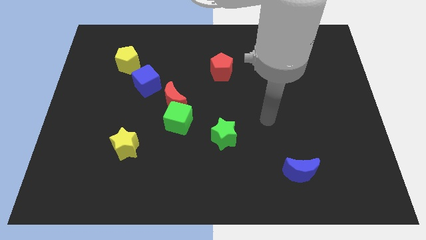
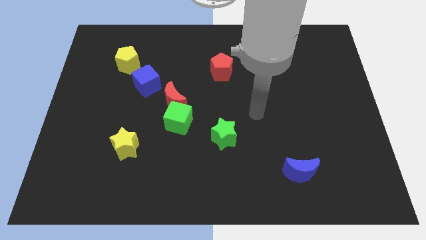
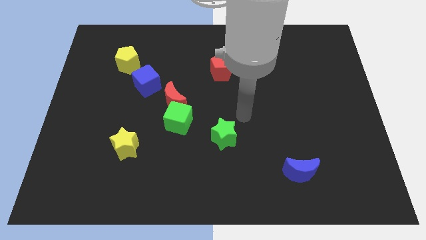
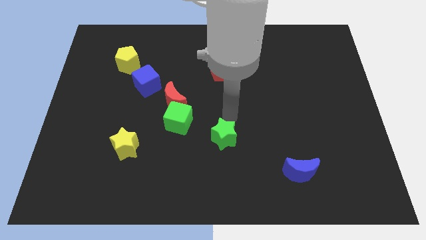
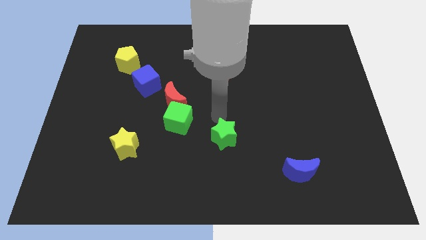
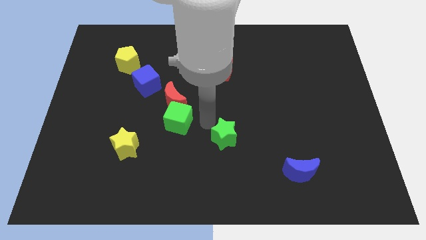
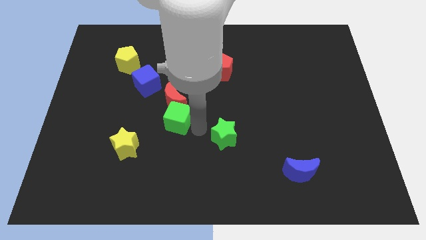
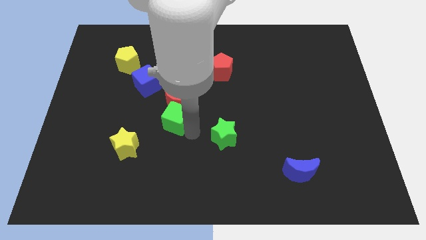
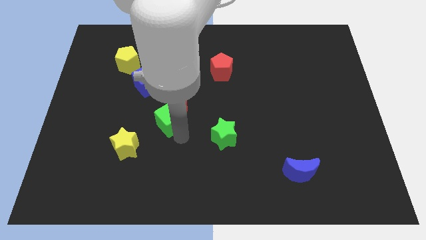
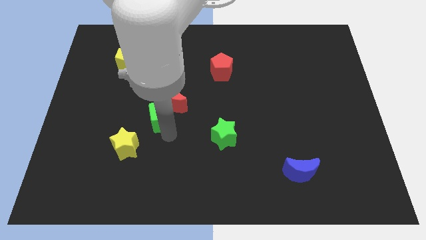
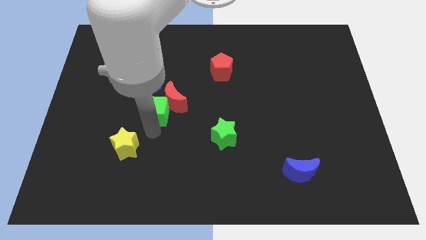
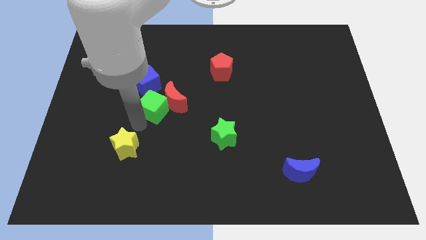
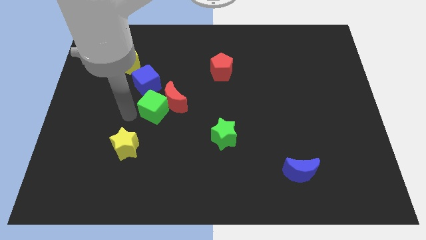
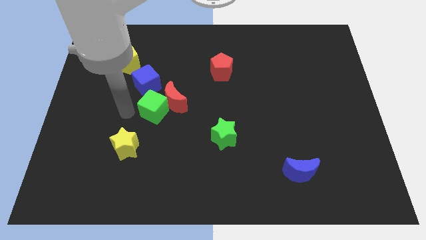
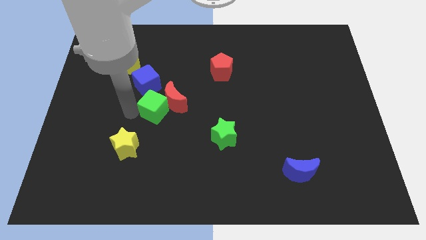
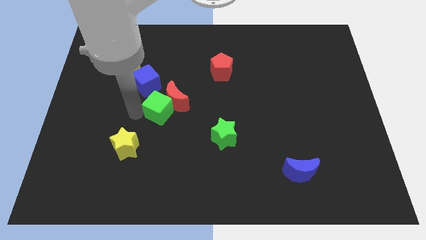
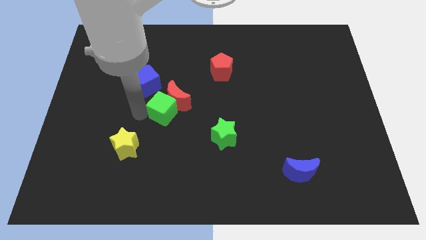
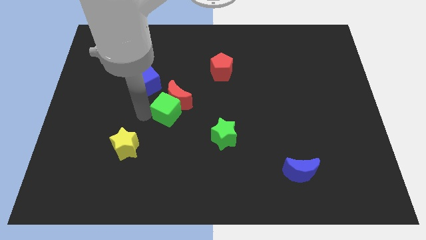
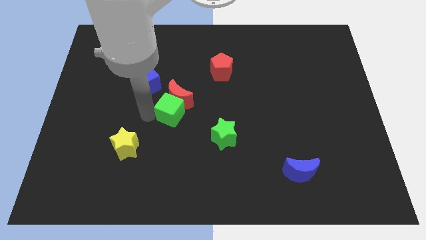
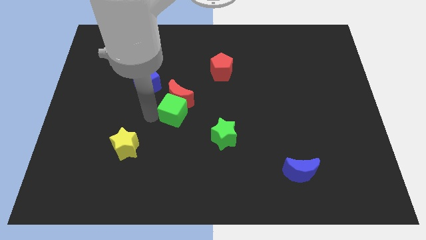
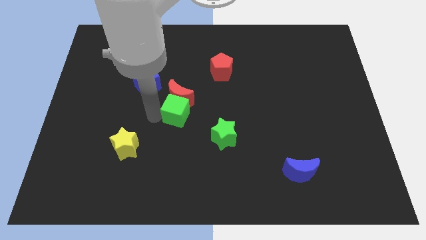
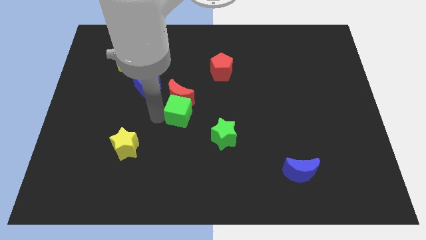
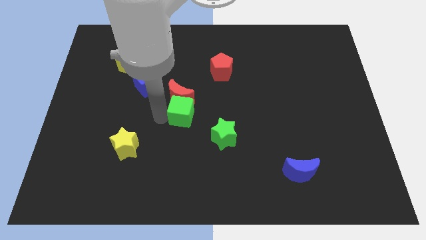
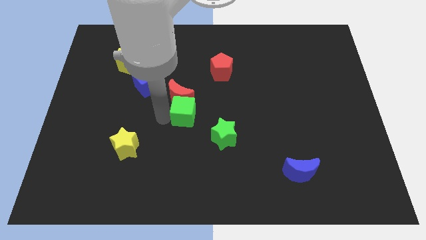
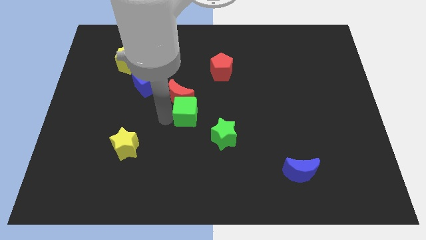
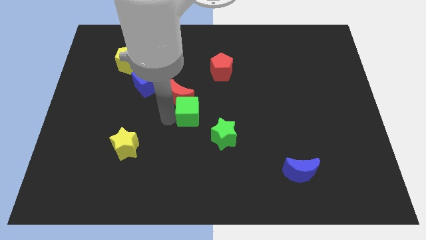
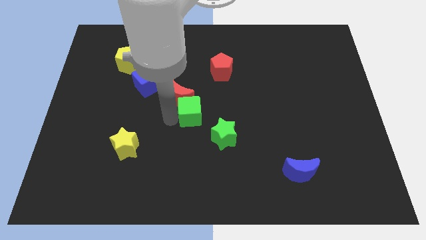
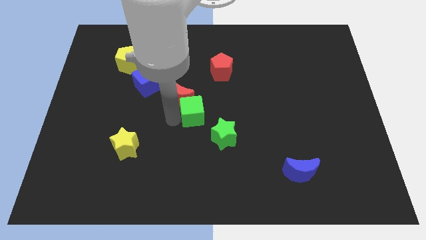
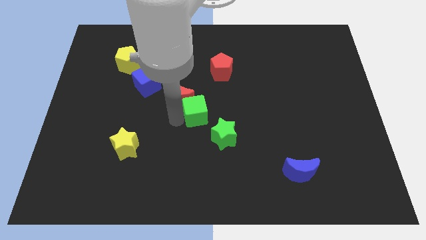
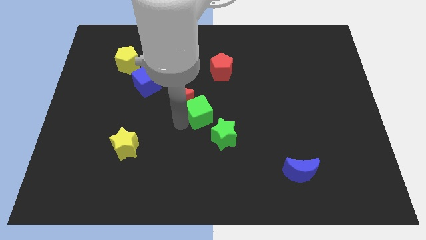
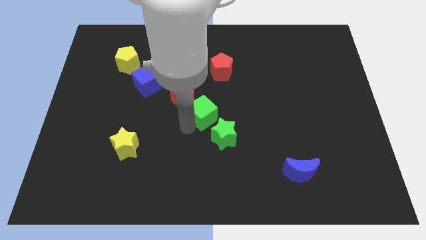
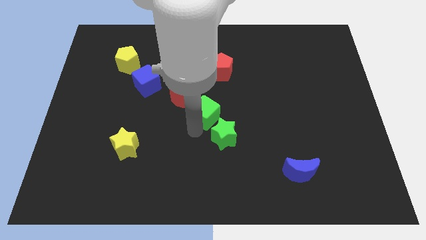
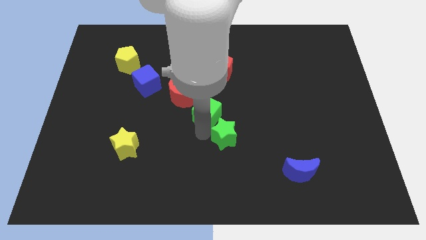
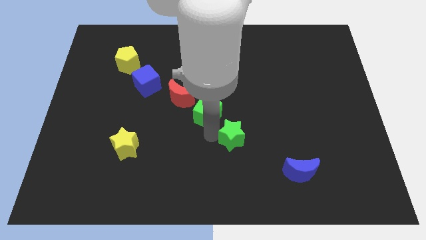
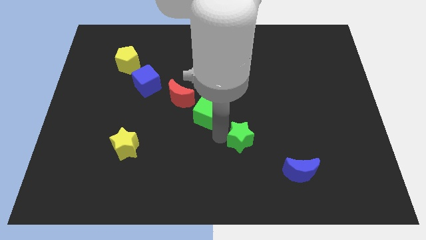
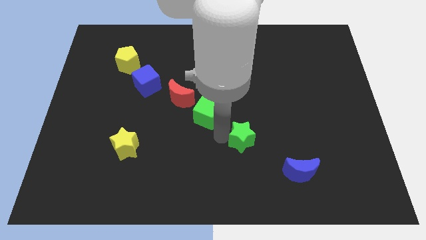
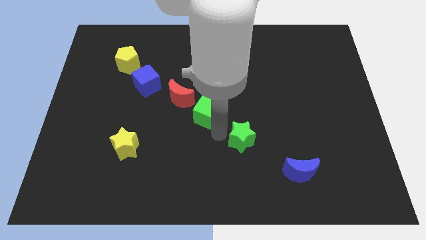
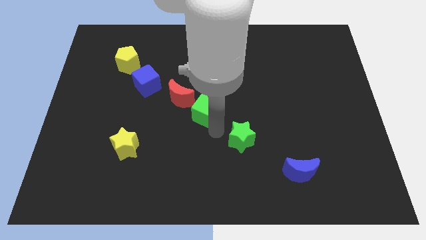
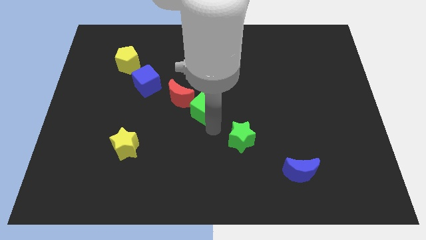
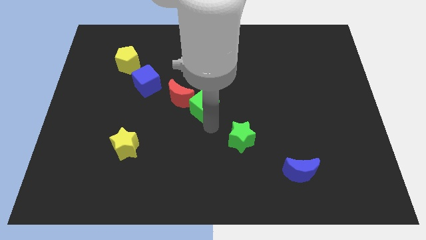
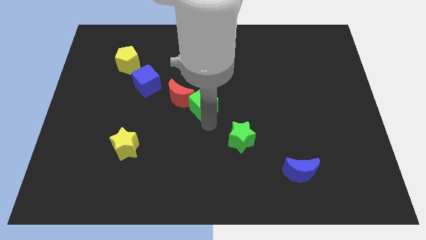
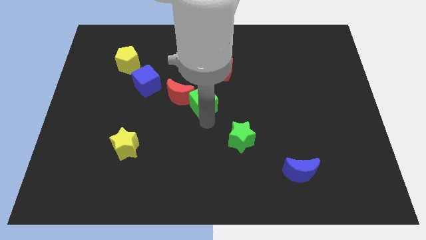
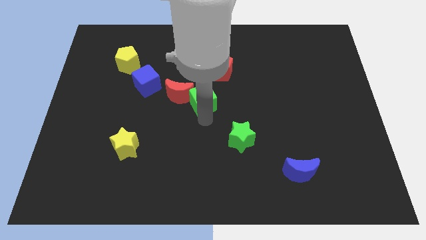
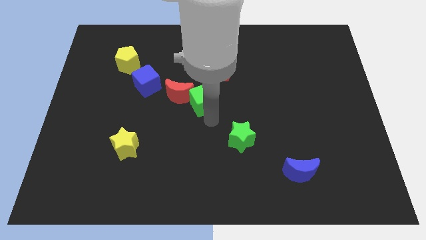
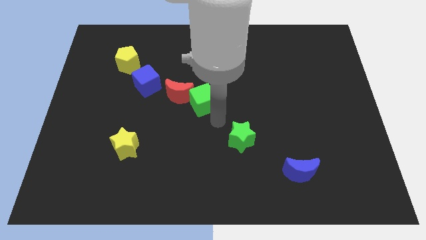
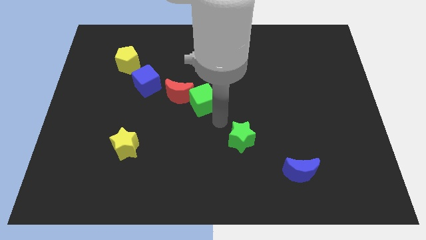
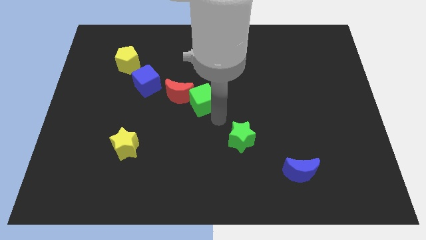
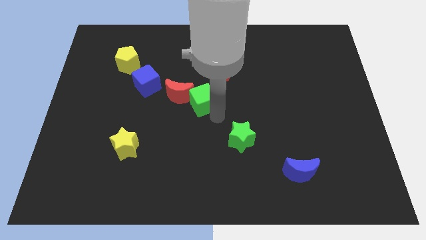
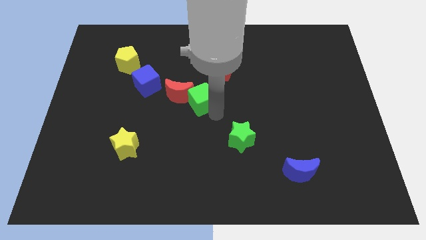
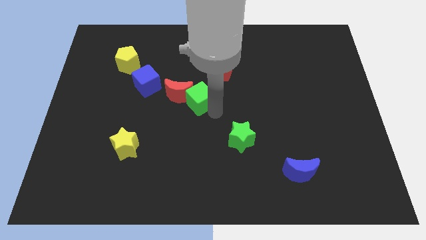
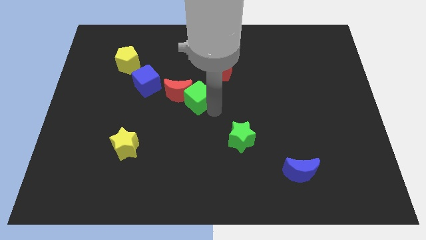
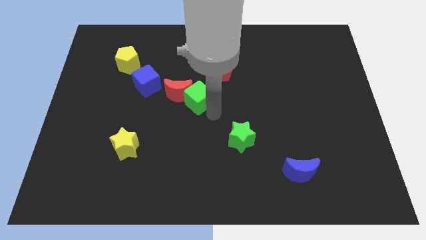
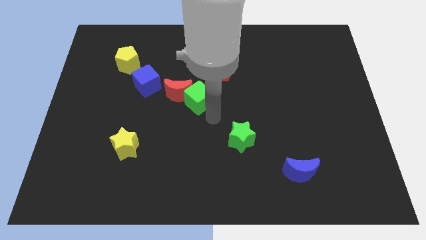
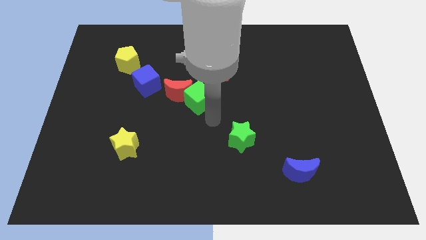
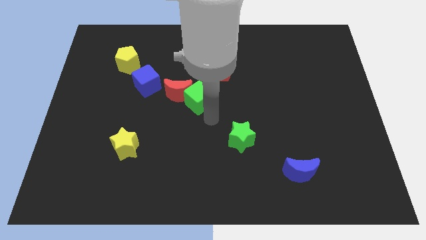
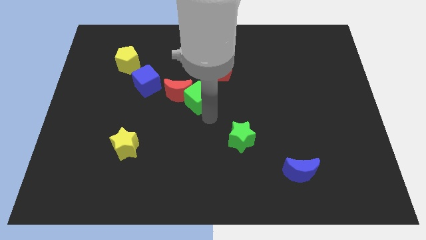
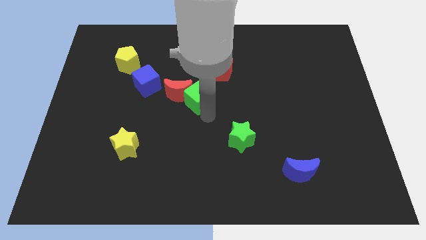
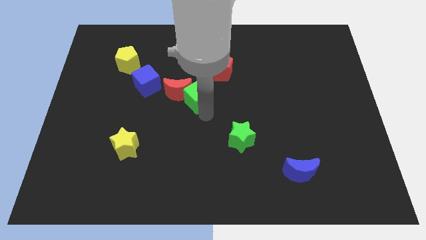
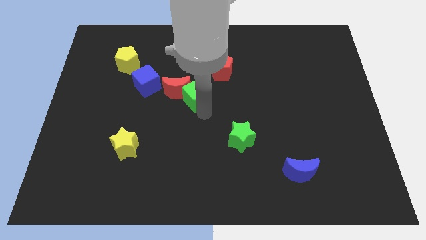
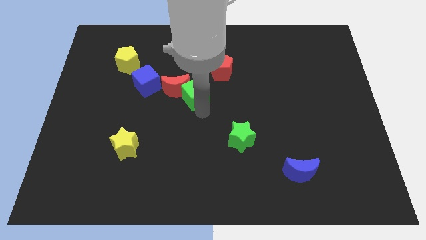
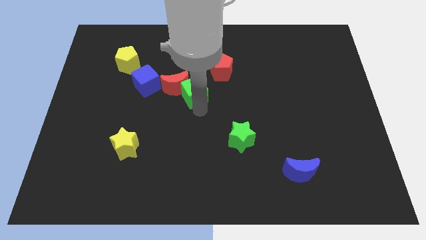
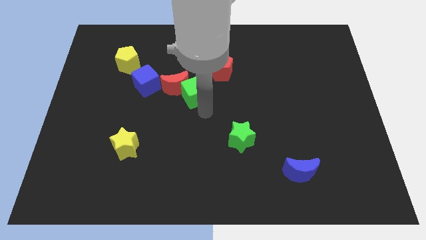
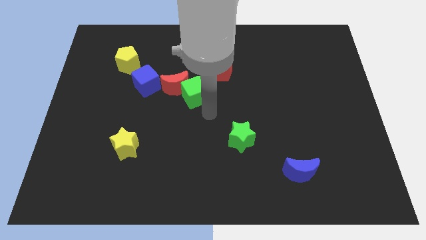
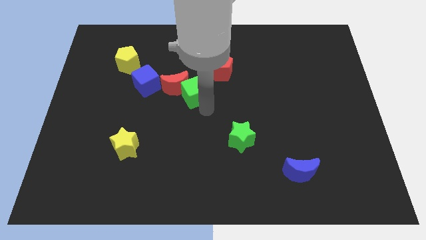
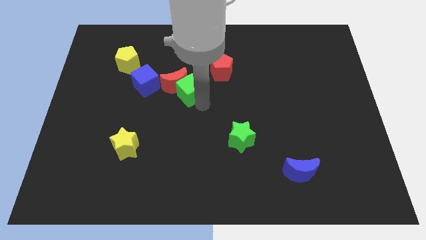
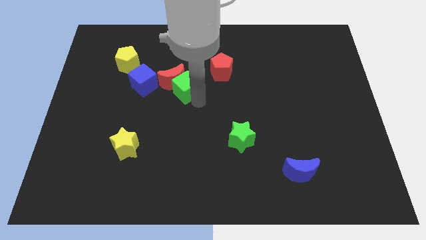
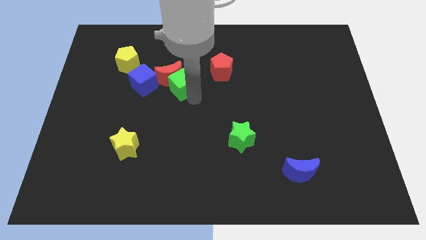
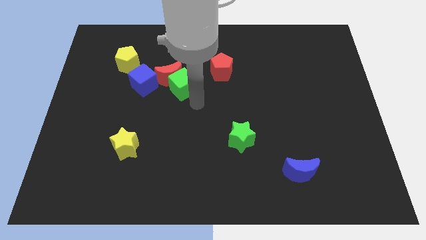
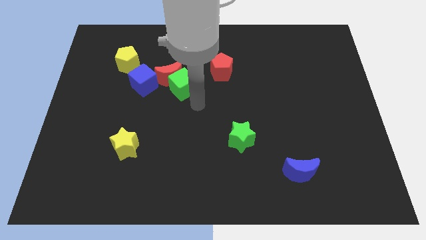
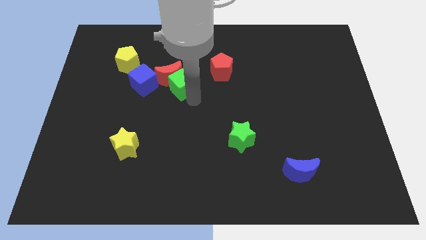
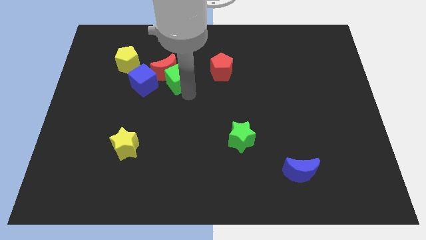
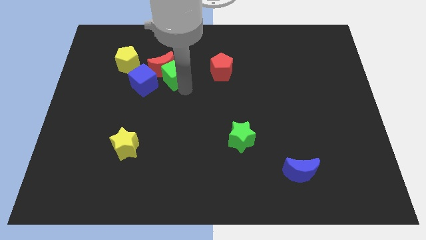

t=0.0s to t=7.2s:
slide the green cube to the top right side of the blue cube

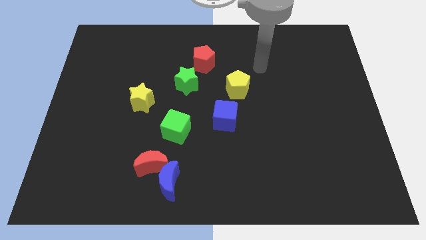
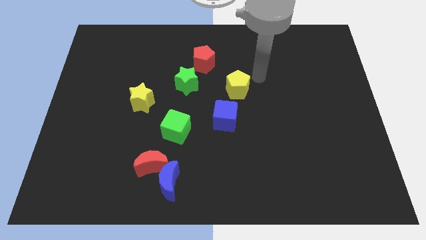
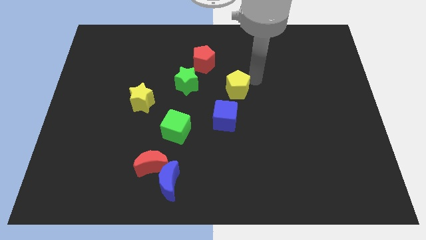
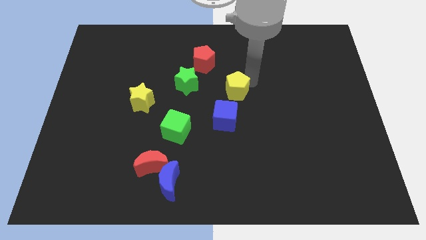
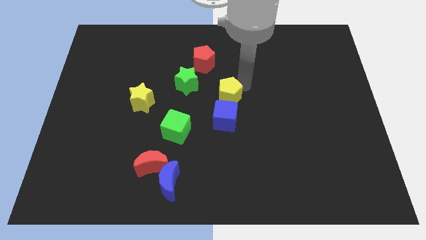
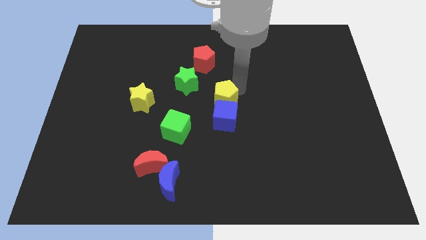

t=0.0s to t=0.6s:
put the yellow pentagon to the top left side of the blue cube
